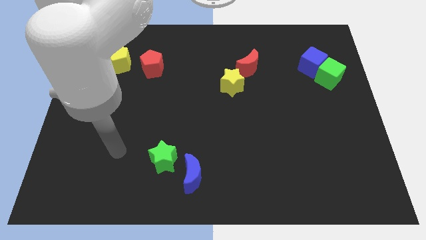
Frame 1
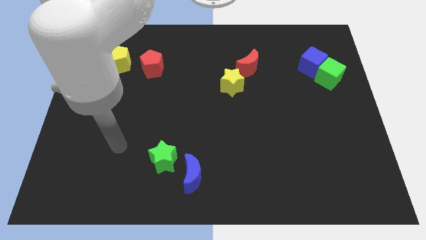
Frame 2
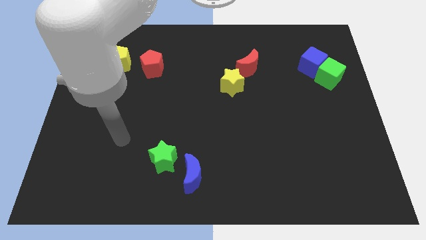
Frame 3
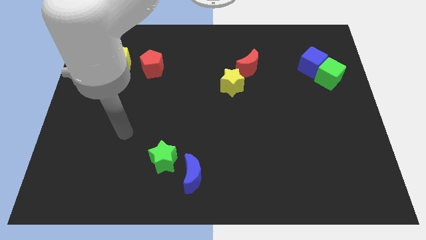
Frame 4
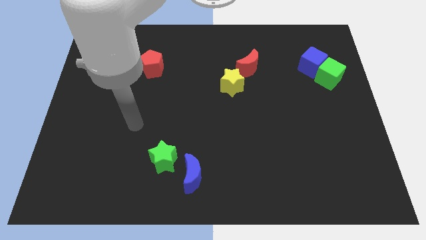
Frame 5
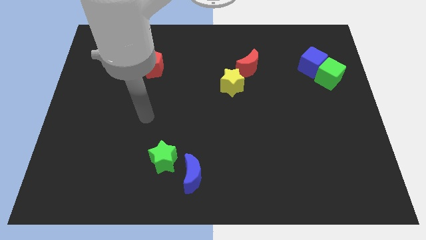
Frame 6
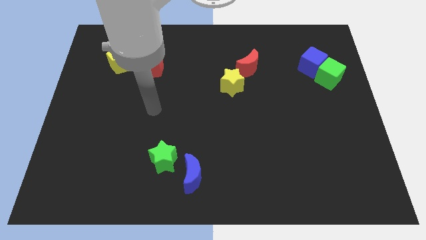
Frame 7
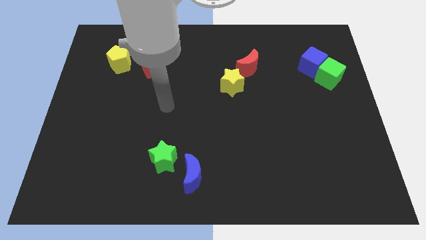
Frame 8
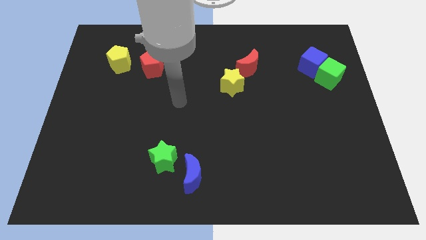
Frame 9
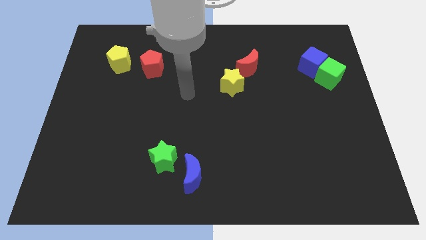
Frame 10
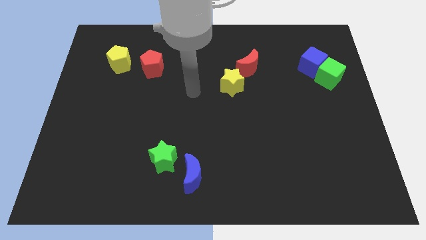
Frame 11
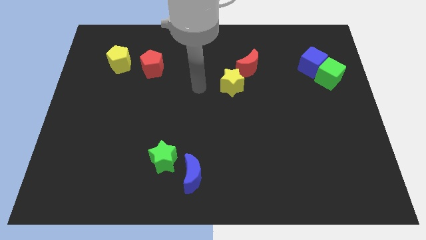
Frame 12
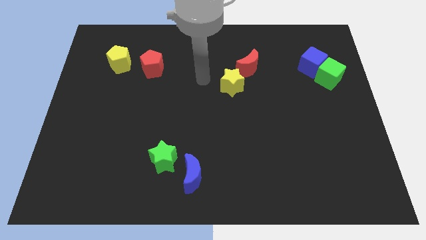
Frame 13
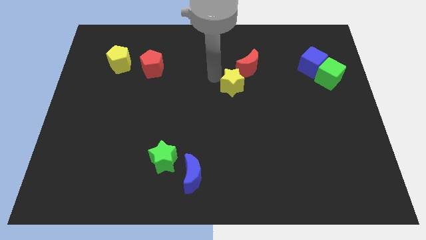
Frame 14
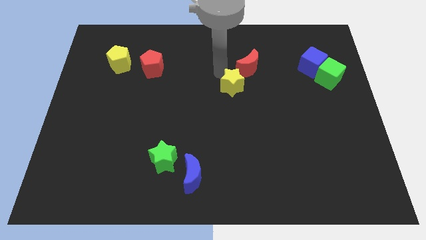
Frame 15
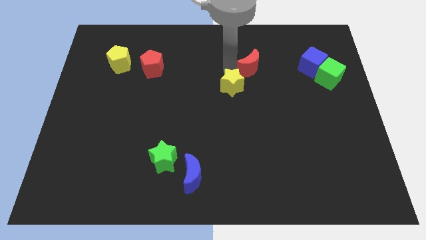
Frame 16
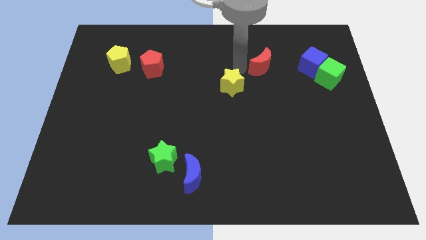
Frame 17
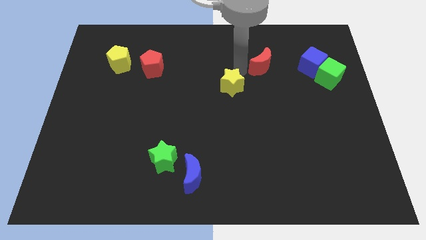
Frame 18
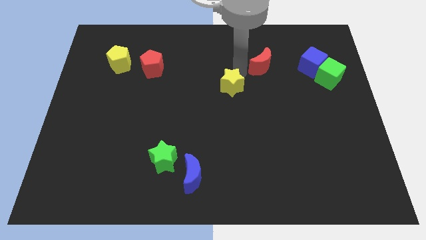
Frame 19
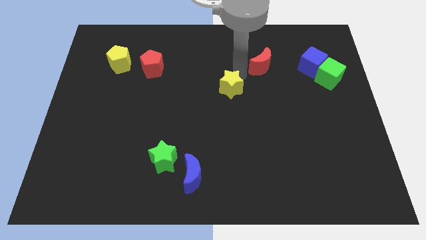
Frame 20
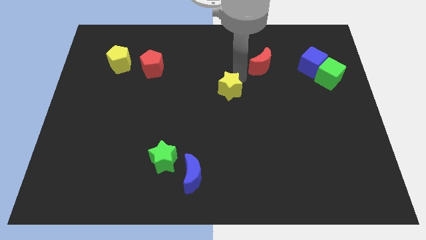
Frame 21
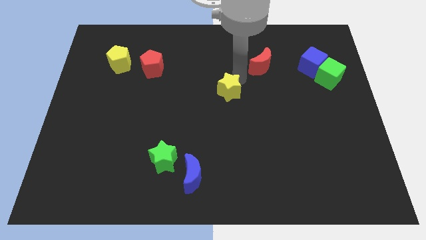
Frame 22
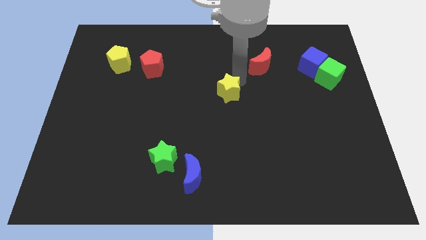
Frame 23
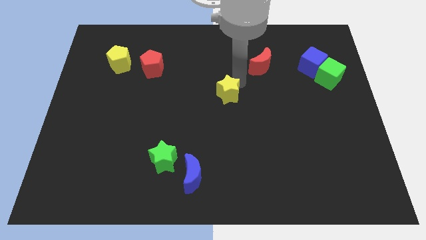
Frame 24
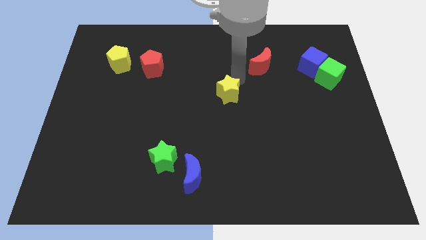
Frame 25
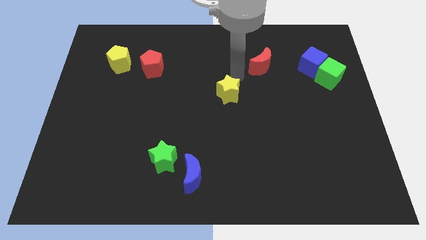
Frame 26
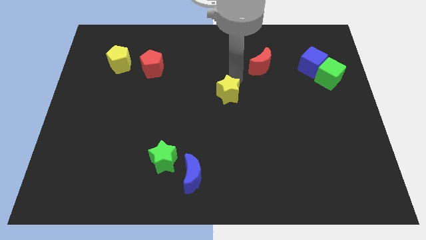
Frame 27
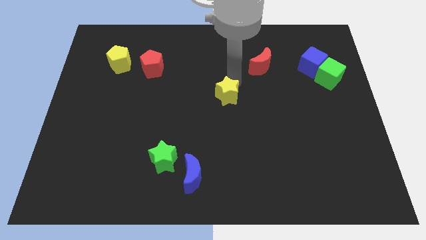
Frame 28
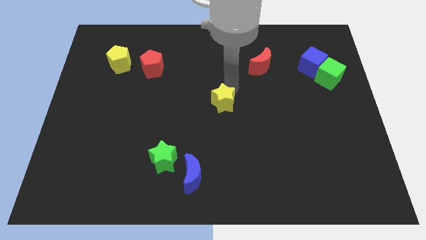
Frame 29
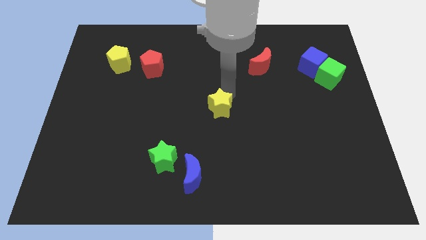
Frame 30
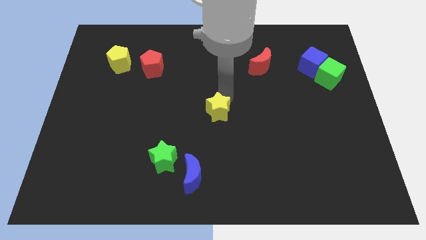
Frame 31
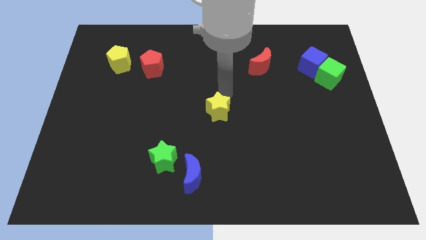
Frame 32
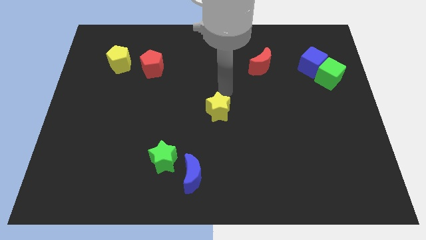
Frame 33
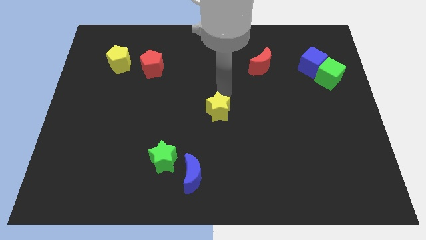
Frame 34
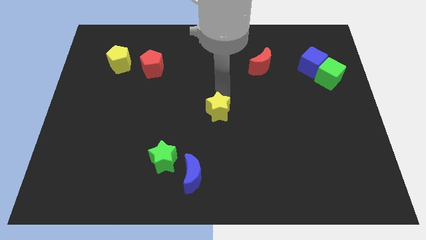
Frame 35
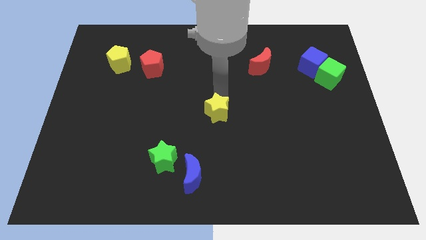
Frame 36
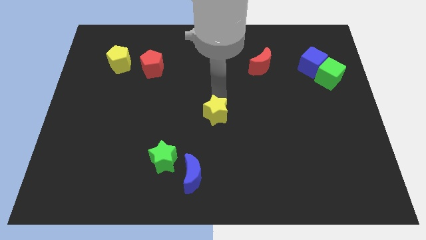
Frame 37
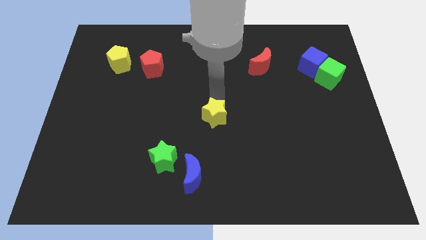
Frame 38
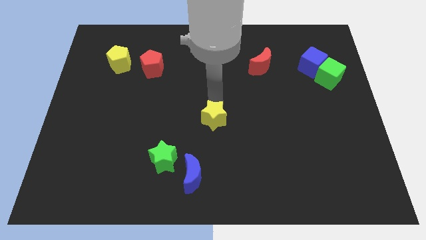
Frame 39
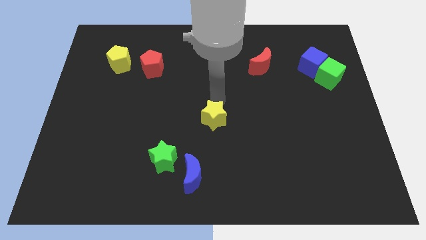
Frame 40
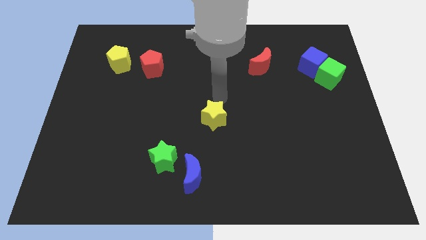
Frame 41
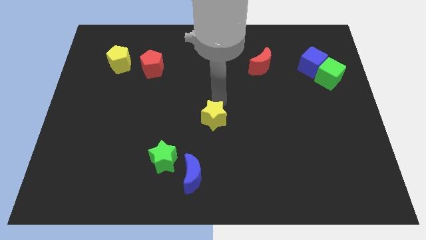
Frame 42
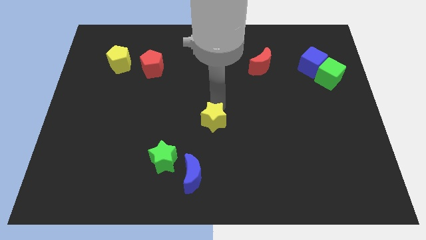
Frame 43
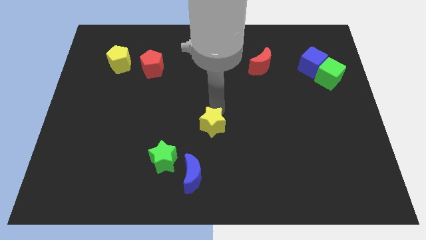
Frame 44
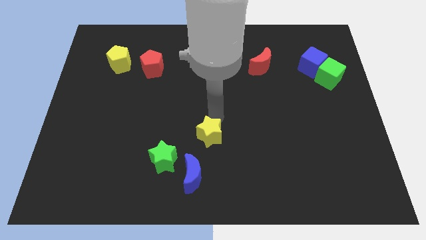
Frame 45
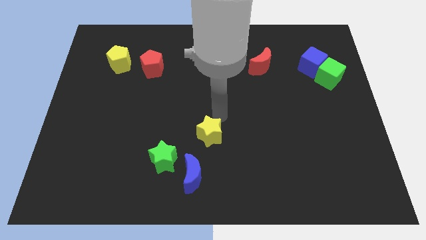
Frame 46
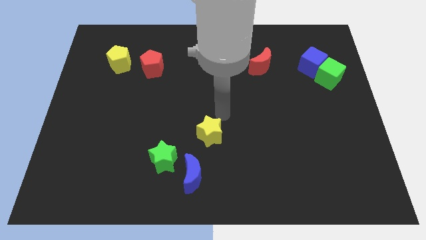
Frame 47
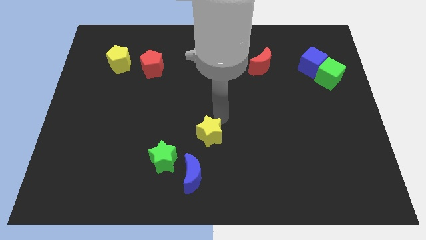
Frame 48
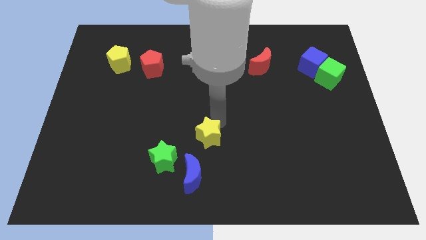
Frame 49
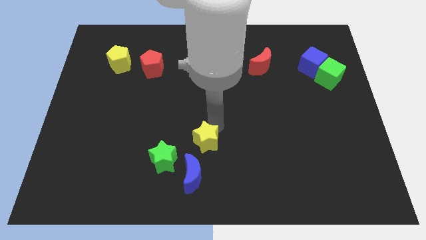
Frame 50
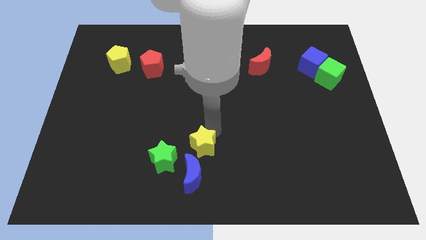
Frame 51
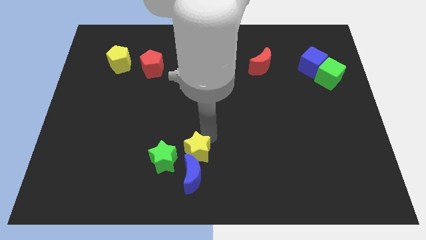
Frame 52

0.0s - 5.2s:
slide the yellow star to the blue moon

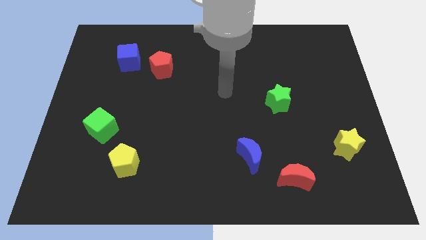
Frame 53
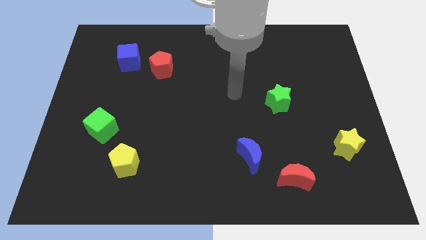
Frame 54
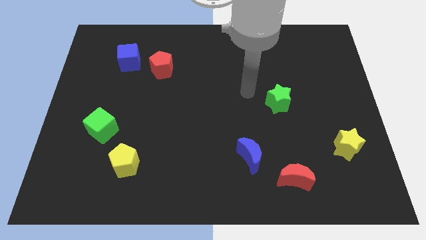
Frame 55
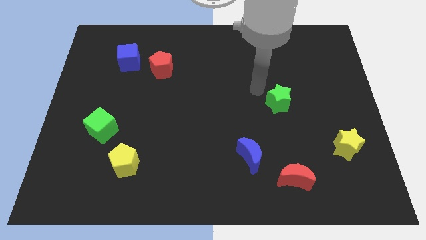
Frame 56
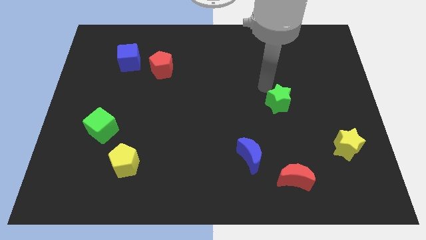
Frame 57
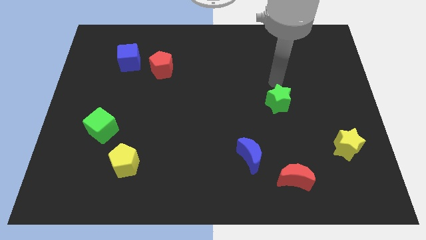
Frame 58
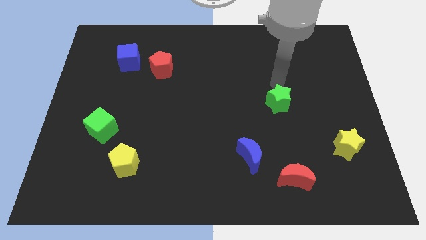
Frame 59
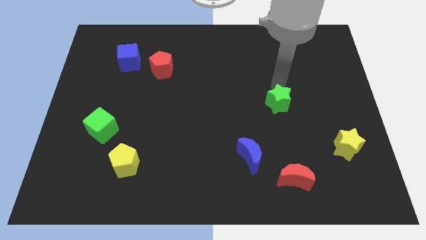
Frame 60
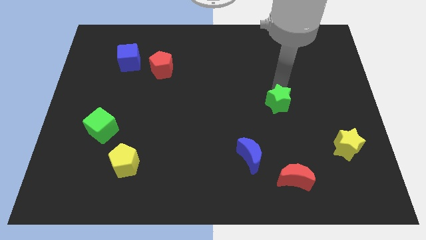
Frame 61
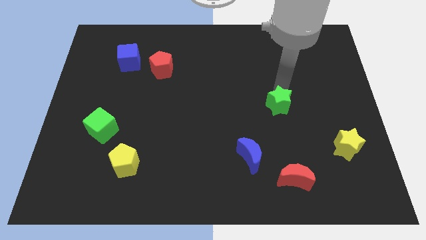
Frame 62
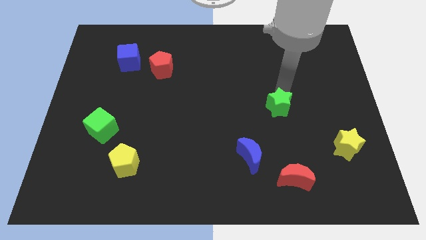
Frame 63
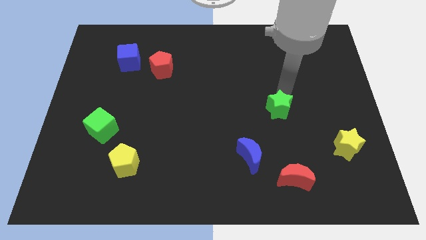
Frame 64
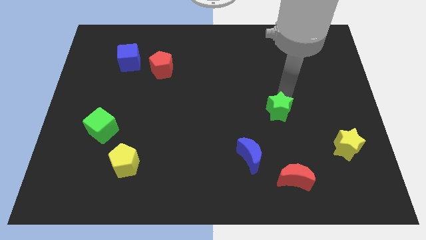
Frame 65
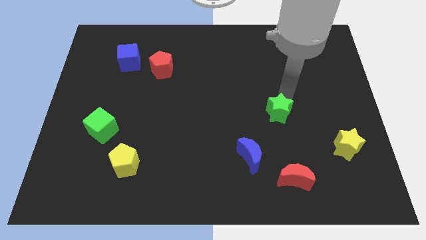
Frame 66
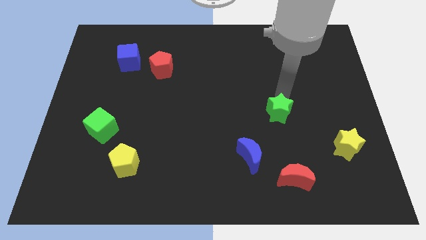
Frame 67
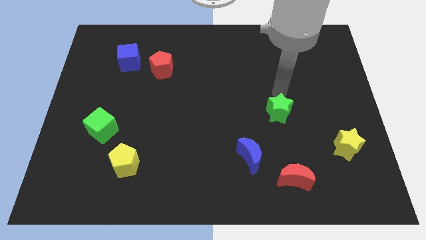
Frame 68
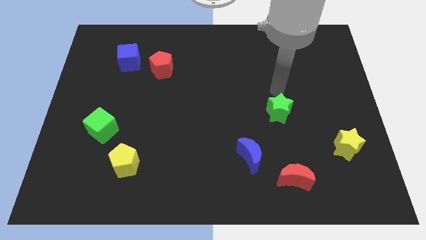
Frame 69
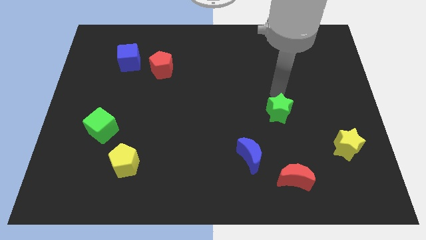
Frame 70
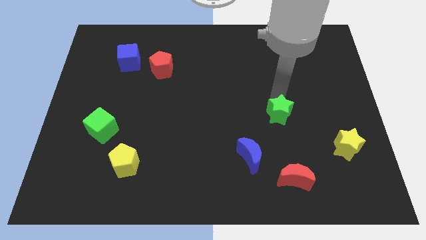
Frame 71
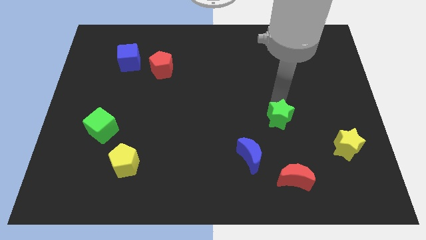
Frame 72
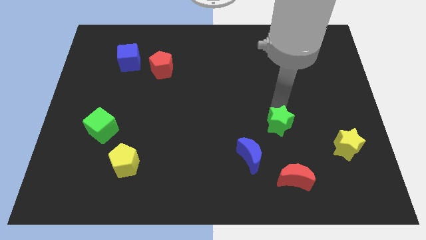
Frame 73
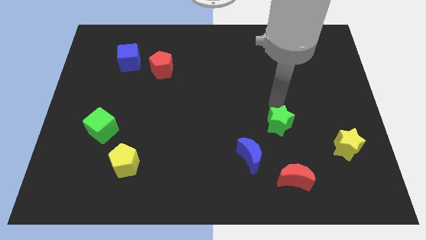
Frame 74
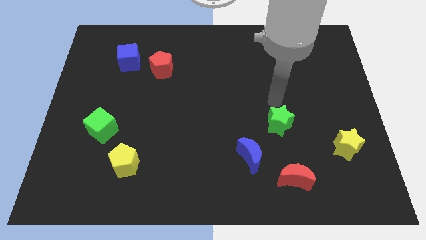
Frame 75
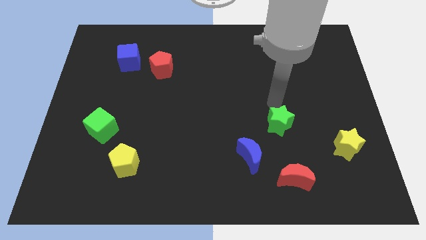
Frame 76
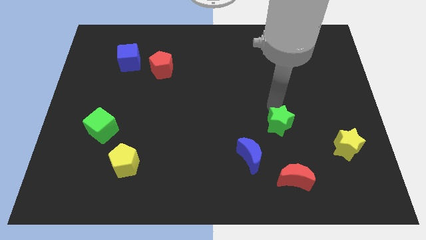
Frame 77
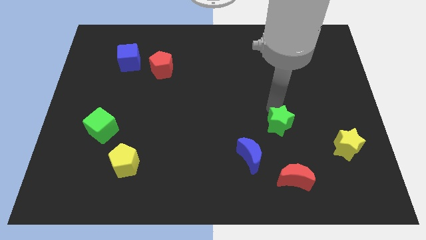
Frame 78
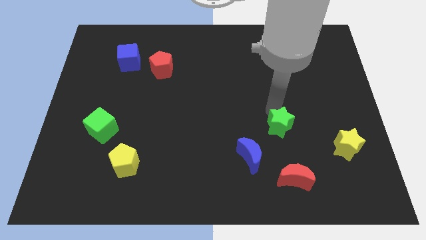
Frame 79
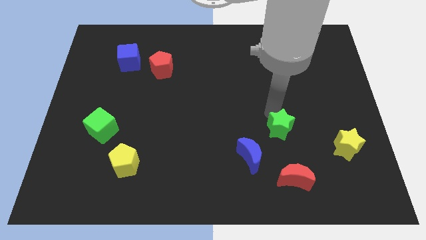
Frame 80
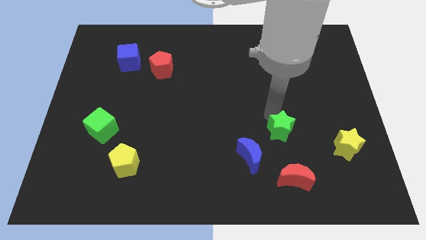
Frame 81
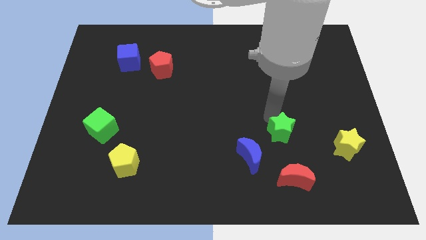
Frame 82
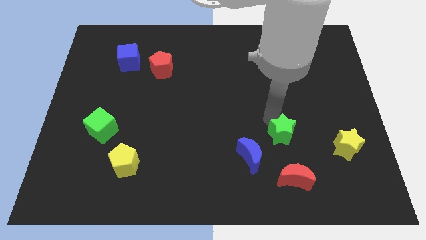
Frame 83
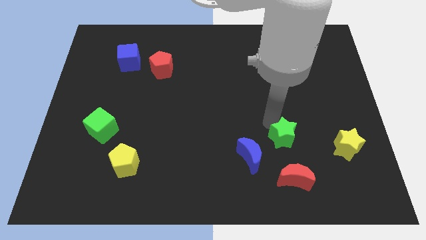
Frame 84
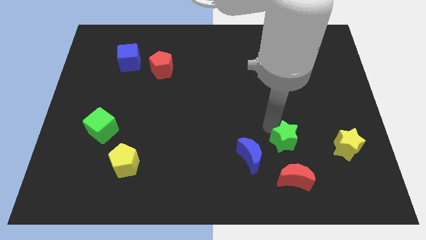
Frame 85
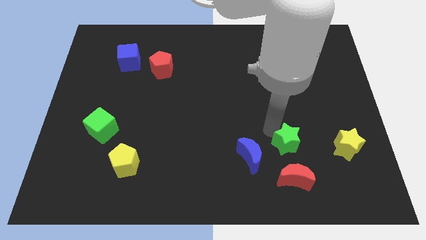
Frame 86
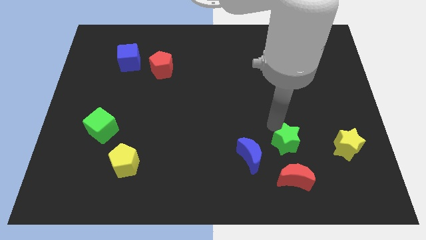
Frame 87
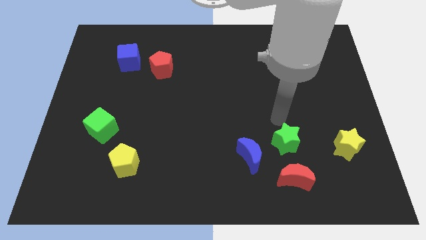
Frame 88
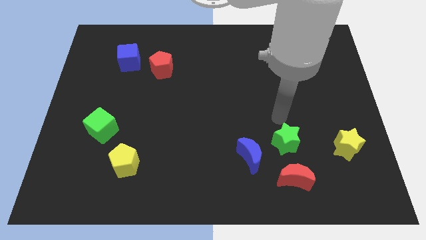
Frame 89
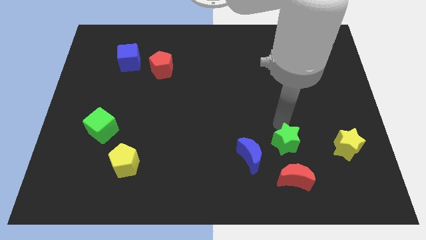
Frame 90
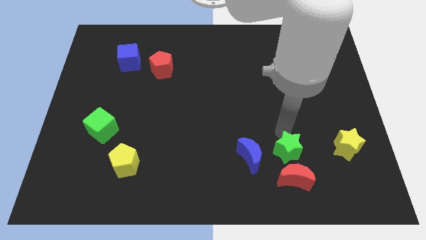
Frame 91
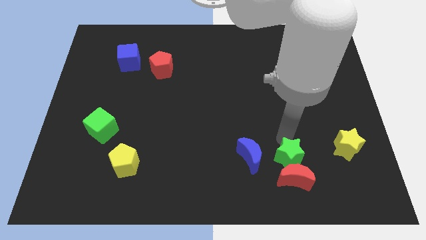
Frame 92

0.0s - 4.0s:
push the green star close to the red moon
